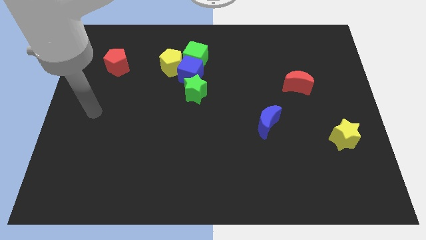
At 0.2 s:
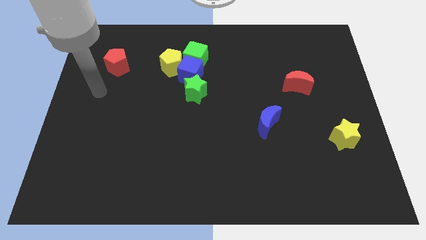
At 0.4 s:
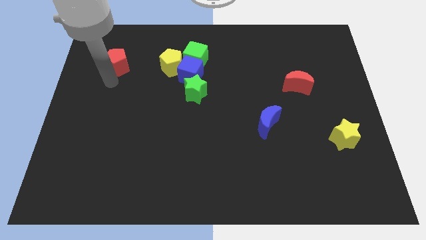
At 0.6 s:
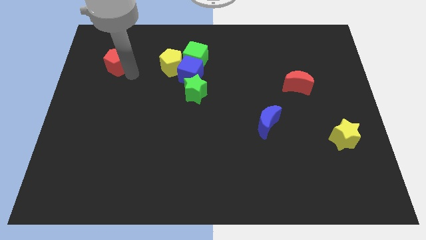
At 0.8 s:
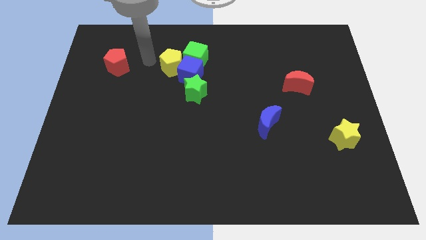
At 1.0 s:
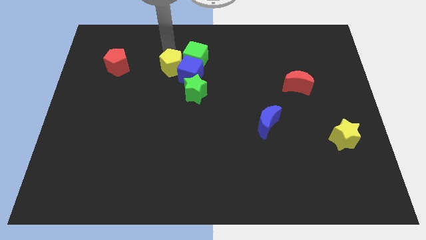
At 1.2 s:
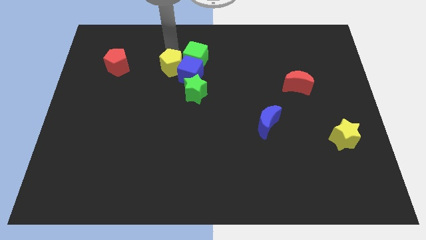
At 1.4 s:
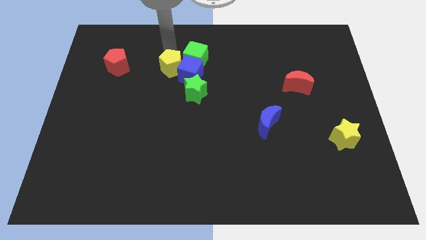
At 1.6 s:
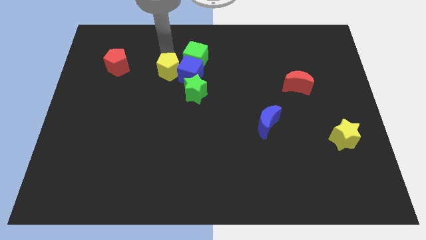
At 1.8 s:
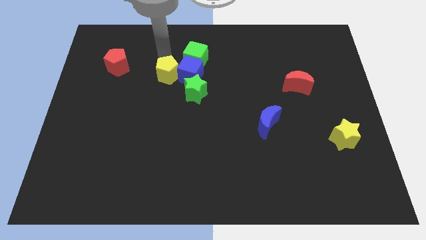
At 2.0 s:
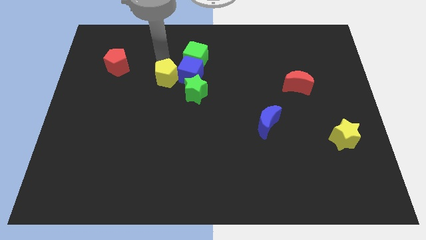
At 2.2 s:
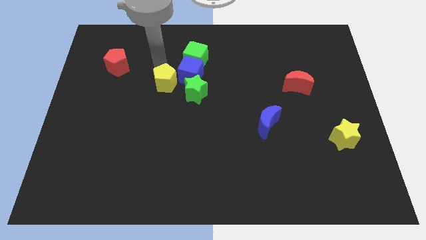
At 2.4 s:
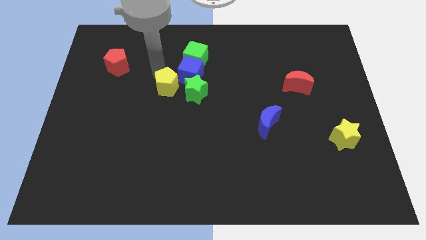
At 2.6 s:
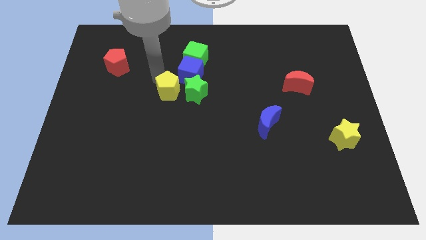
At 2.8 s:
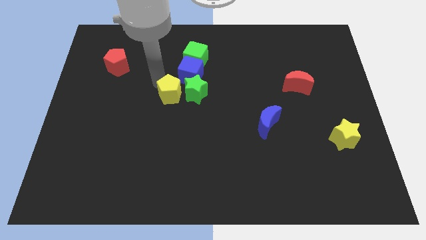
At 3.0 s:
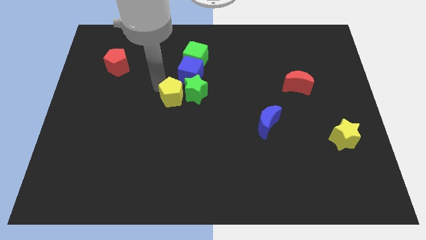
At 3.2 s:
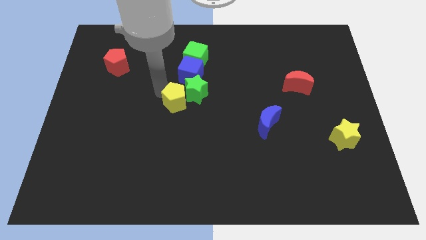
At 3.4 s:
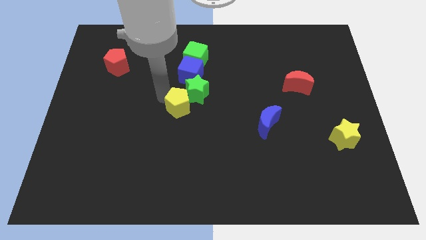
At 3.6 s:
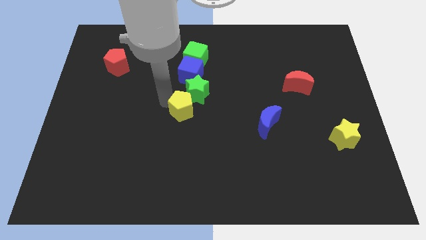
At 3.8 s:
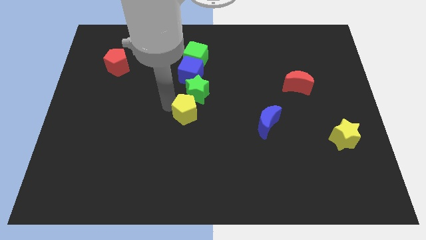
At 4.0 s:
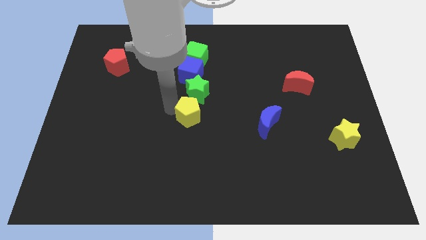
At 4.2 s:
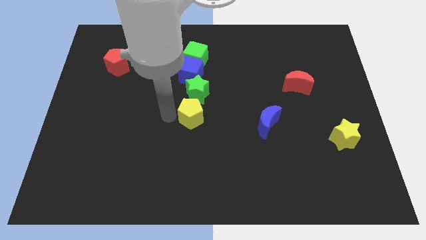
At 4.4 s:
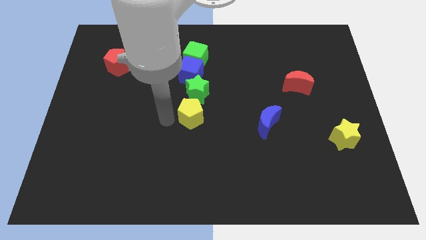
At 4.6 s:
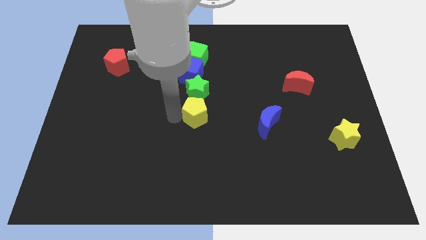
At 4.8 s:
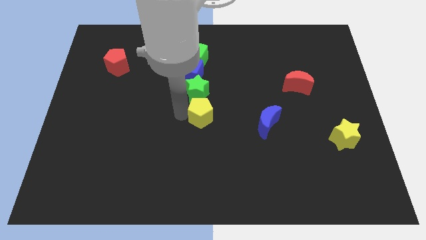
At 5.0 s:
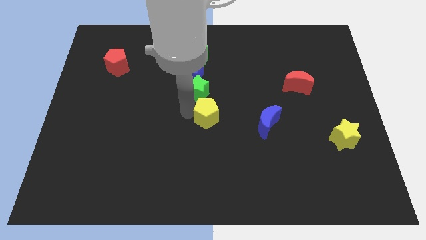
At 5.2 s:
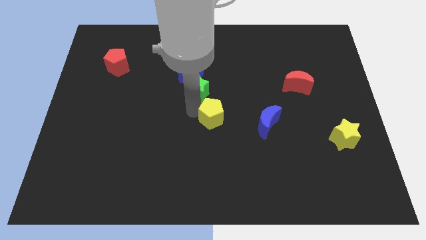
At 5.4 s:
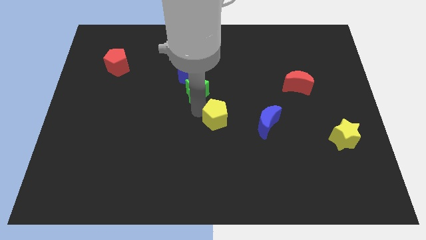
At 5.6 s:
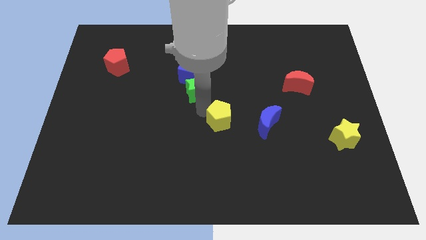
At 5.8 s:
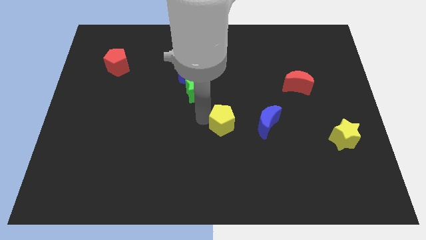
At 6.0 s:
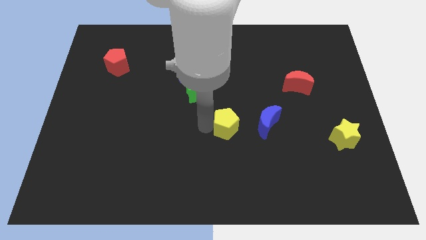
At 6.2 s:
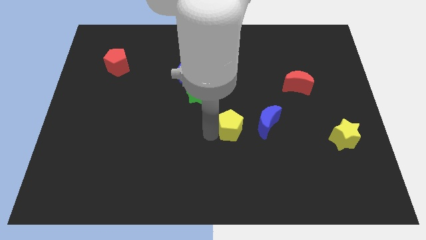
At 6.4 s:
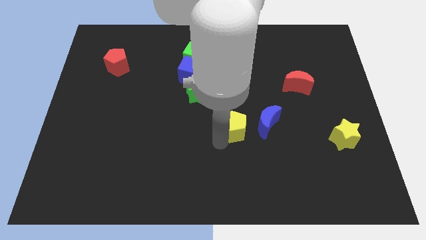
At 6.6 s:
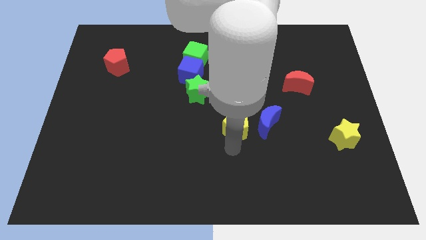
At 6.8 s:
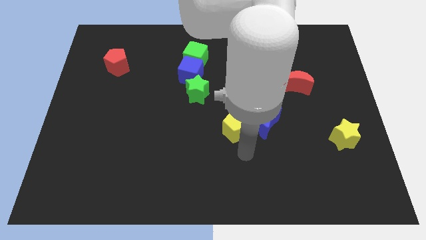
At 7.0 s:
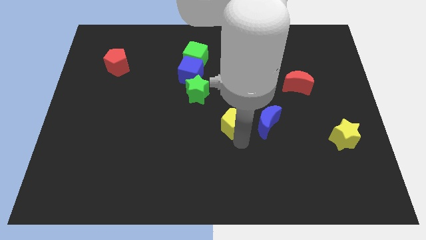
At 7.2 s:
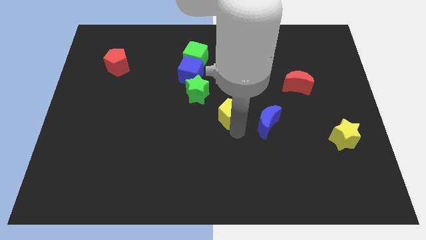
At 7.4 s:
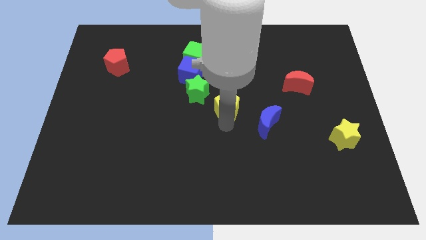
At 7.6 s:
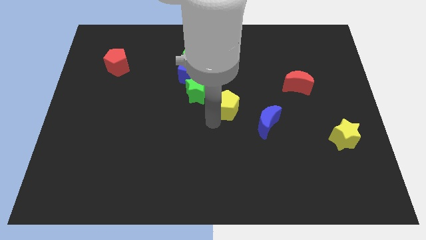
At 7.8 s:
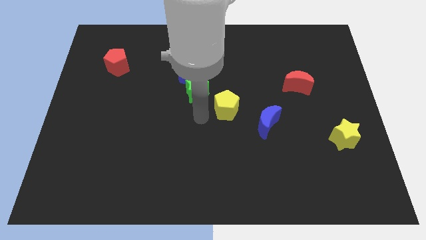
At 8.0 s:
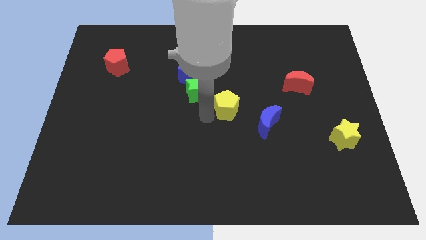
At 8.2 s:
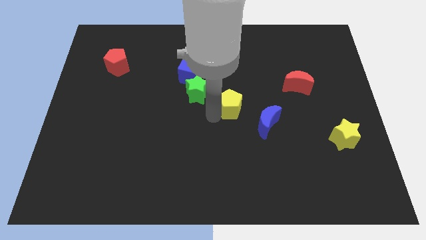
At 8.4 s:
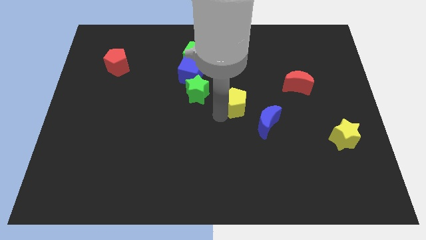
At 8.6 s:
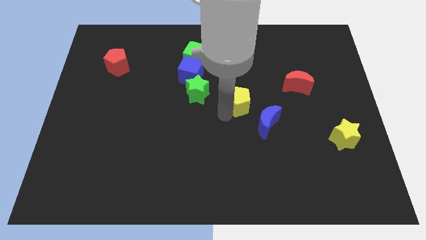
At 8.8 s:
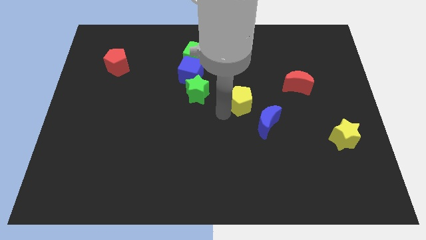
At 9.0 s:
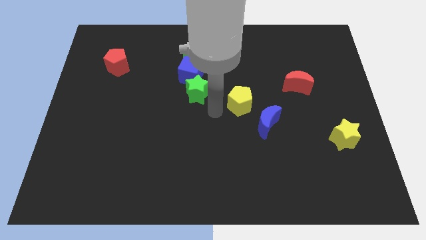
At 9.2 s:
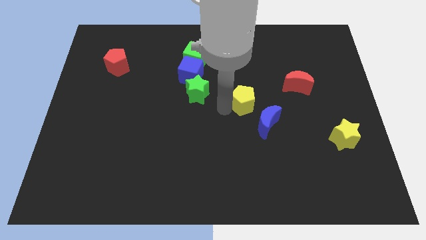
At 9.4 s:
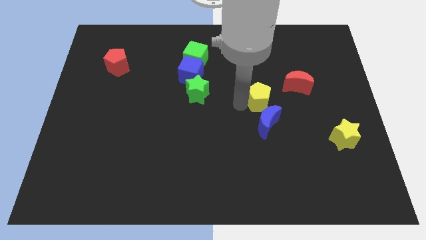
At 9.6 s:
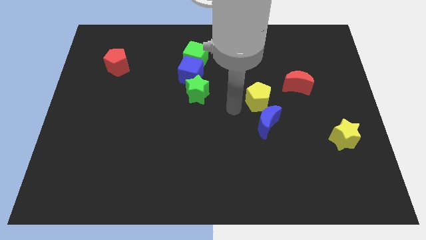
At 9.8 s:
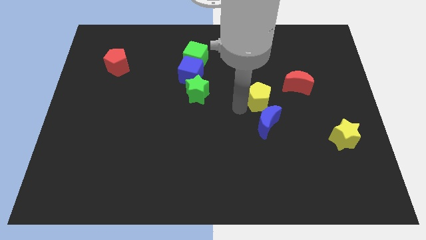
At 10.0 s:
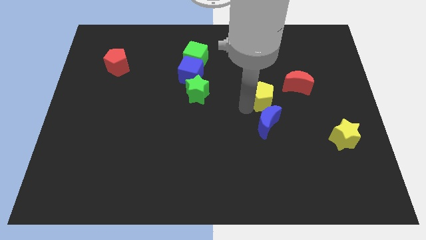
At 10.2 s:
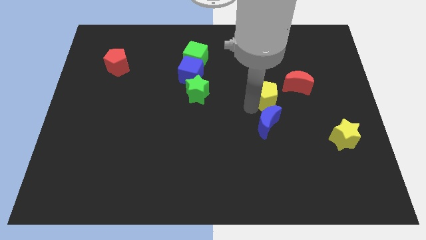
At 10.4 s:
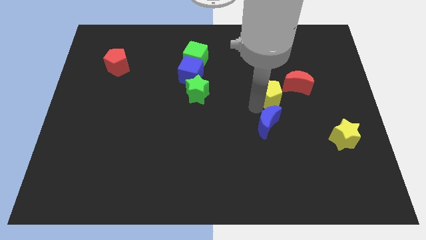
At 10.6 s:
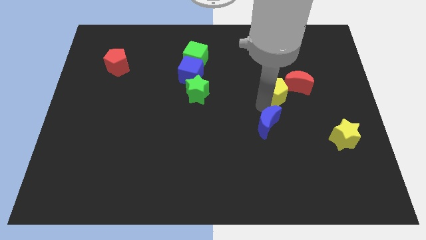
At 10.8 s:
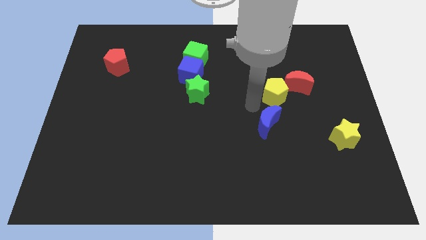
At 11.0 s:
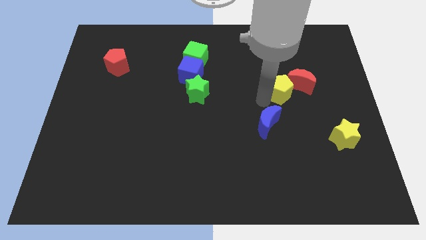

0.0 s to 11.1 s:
slide the yellow pentagon towards the red moon

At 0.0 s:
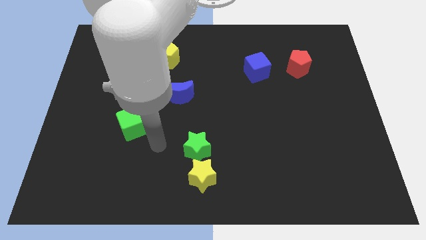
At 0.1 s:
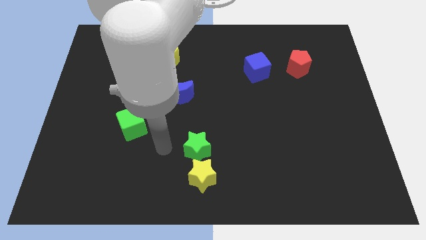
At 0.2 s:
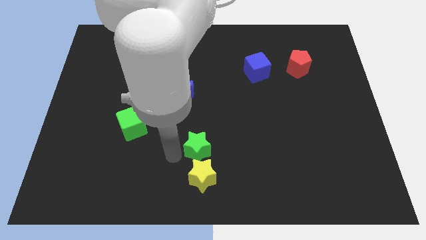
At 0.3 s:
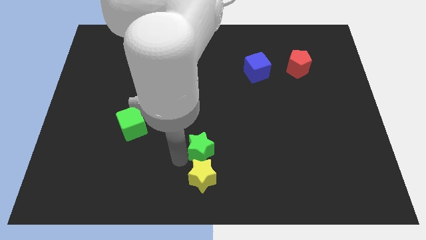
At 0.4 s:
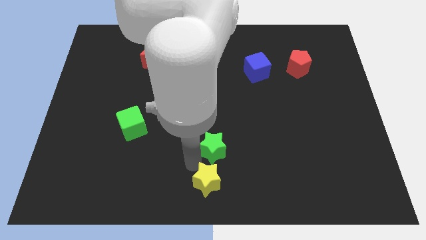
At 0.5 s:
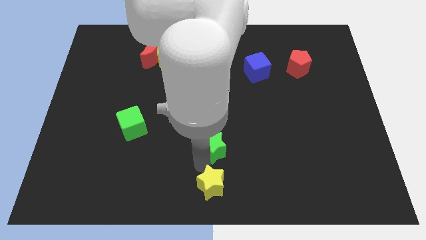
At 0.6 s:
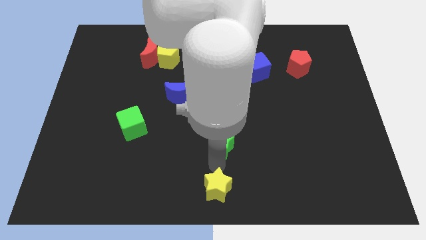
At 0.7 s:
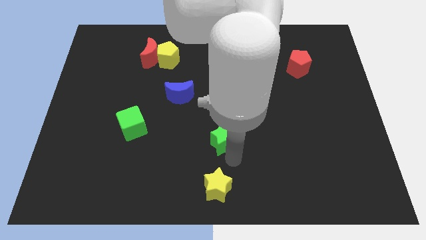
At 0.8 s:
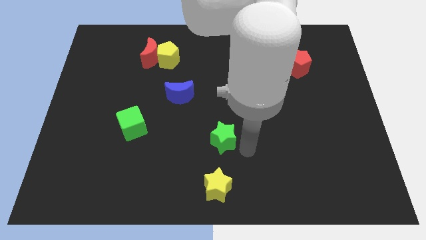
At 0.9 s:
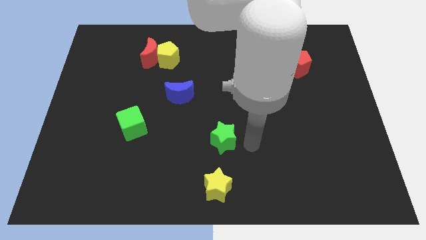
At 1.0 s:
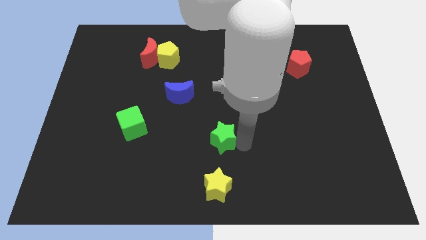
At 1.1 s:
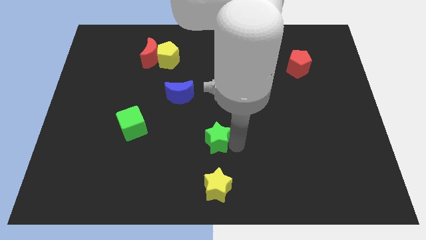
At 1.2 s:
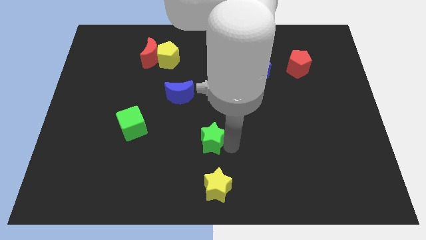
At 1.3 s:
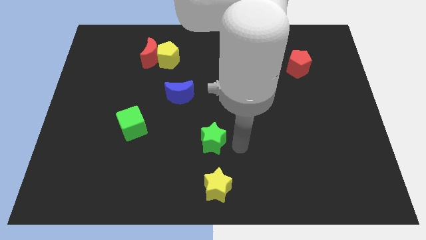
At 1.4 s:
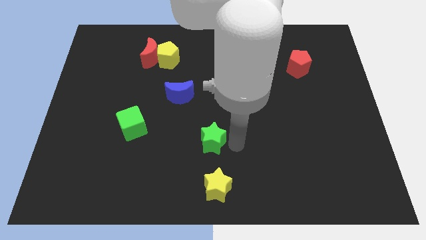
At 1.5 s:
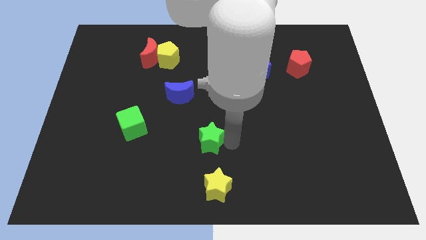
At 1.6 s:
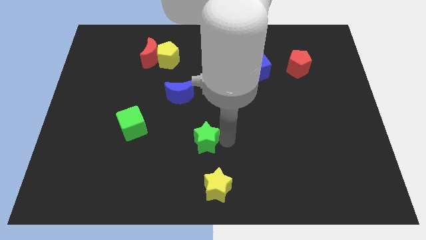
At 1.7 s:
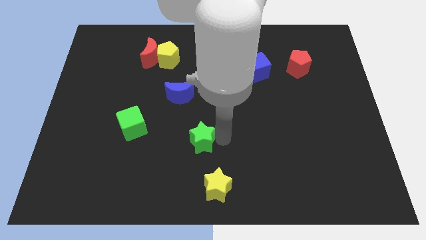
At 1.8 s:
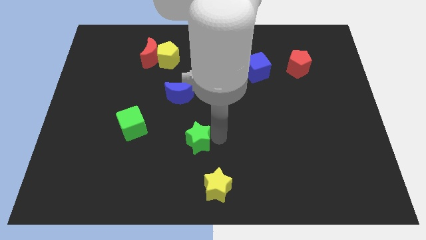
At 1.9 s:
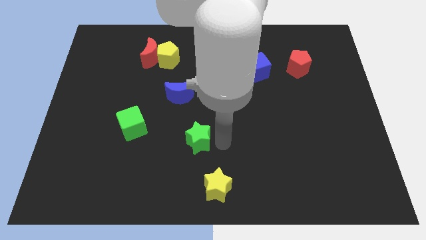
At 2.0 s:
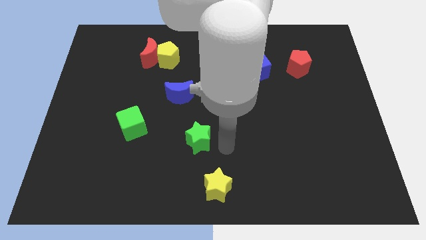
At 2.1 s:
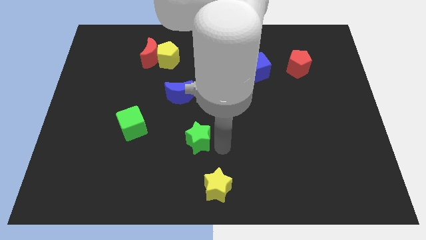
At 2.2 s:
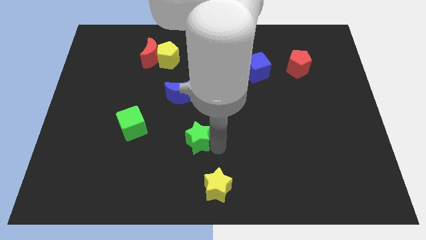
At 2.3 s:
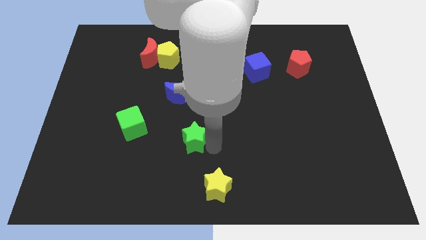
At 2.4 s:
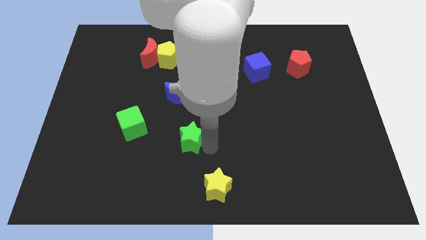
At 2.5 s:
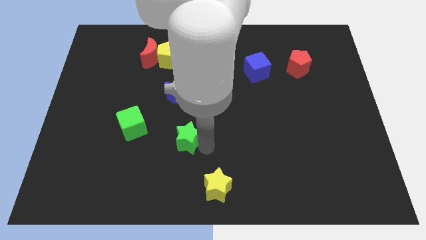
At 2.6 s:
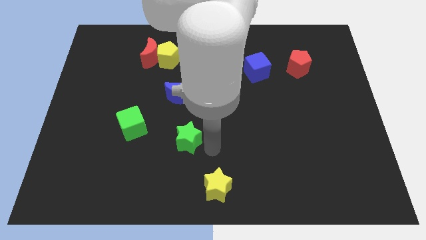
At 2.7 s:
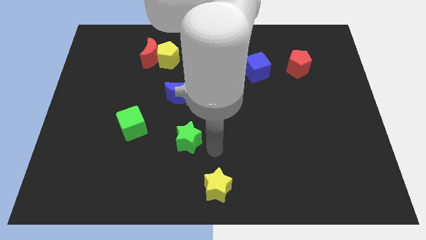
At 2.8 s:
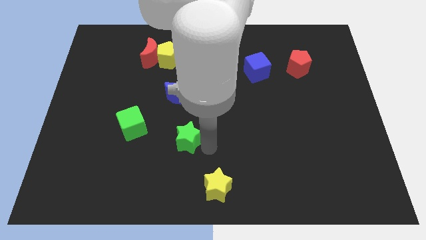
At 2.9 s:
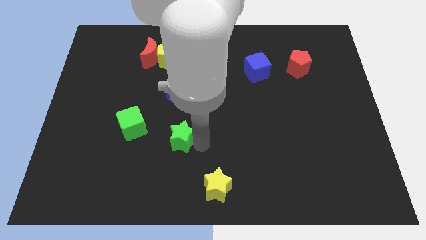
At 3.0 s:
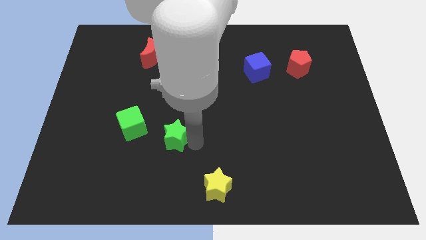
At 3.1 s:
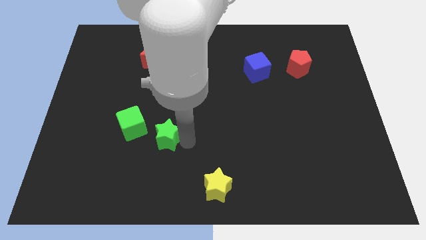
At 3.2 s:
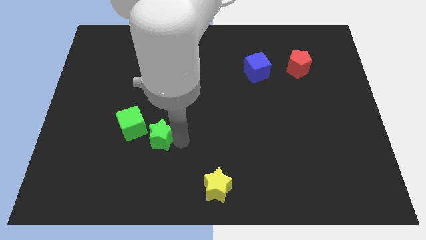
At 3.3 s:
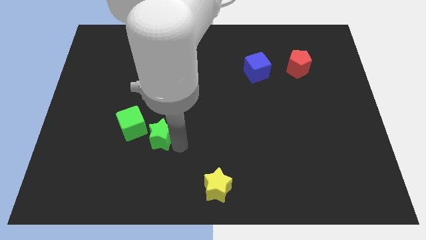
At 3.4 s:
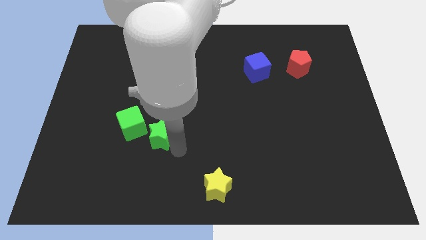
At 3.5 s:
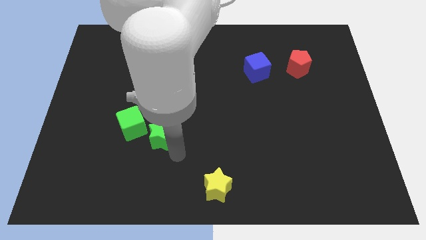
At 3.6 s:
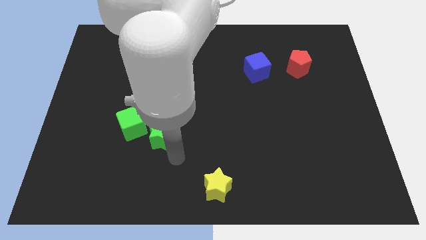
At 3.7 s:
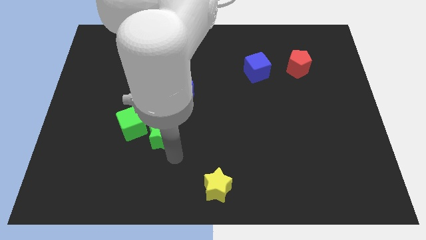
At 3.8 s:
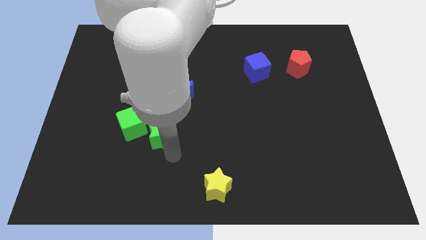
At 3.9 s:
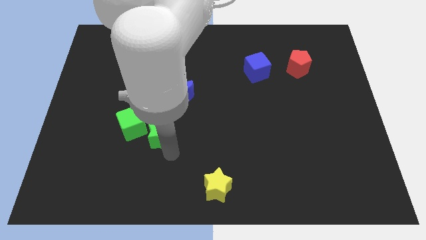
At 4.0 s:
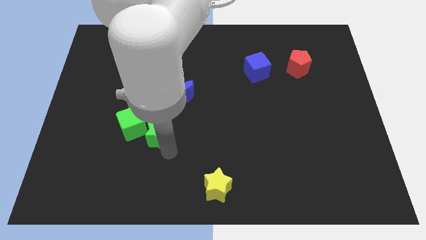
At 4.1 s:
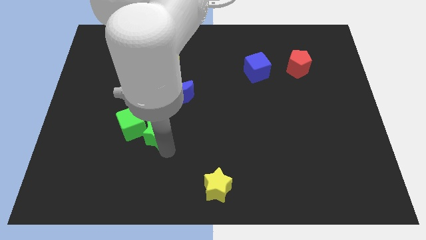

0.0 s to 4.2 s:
put the green star next to the green cube
